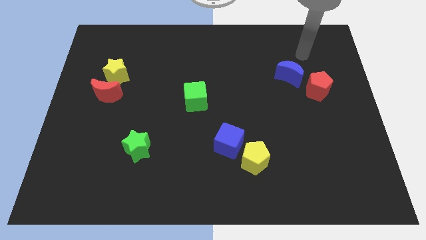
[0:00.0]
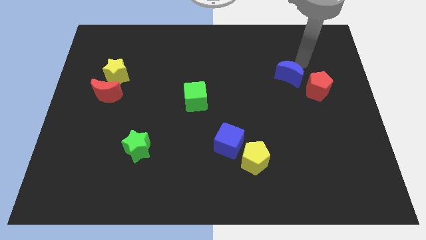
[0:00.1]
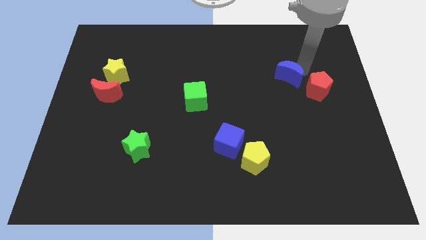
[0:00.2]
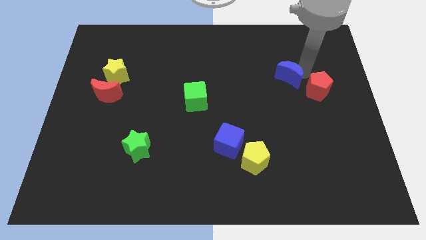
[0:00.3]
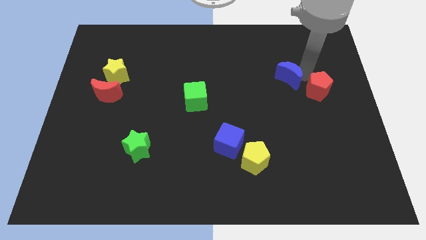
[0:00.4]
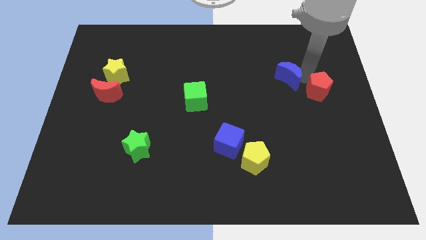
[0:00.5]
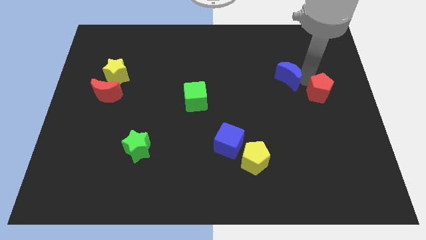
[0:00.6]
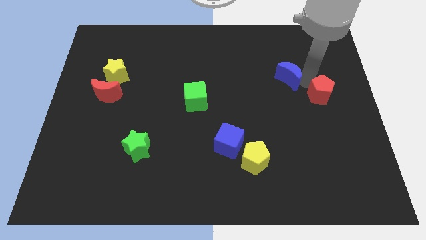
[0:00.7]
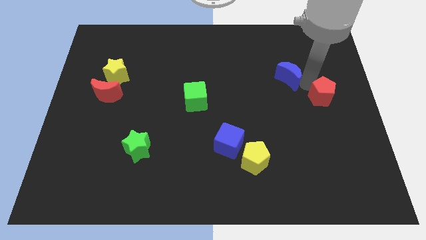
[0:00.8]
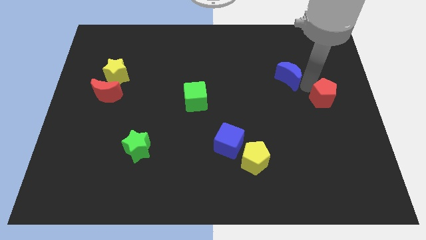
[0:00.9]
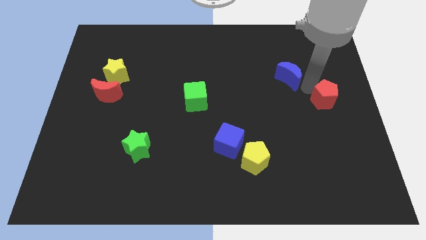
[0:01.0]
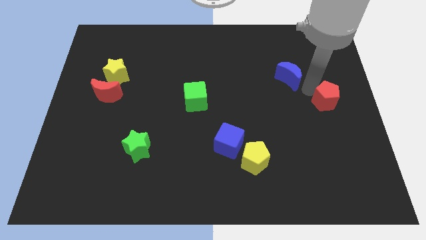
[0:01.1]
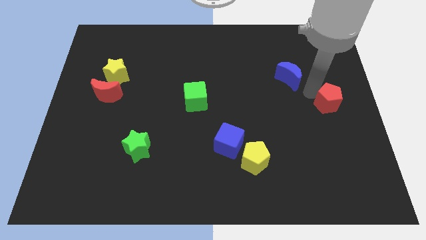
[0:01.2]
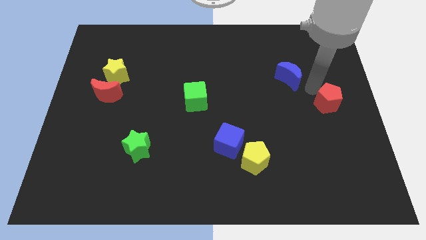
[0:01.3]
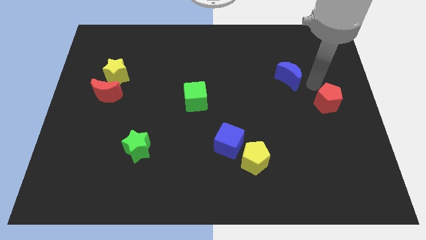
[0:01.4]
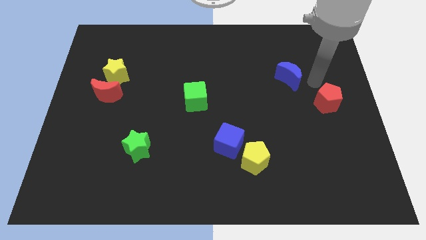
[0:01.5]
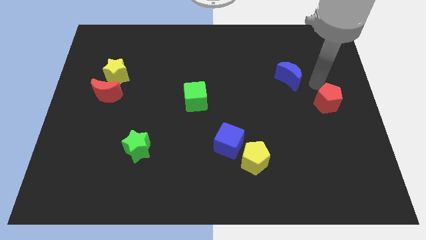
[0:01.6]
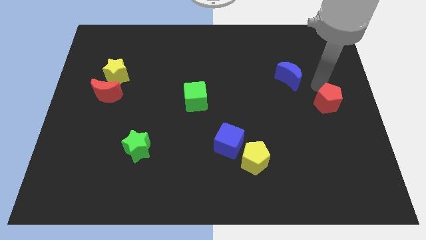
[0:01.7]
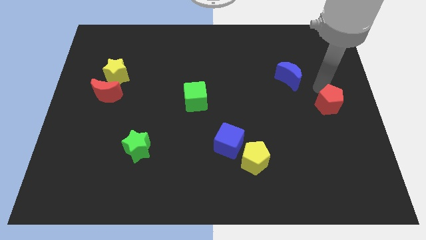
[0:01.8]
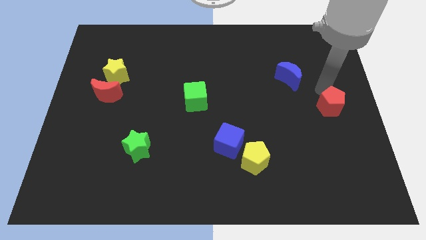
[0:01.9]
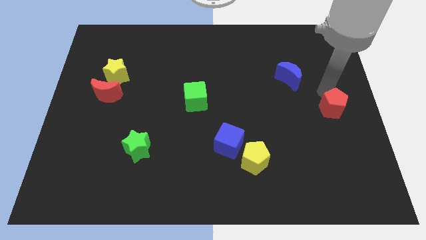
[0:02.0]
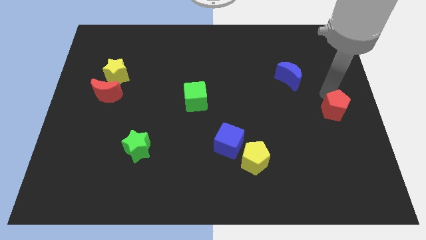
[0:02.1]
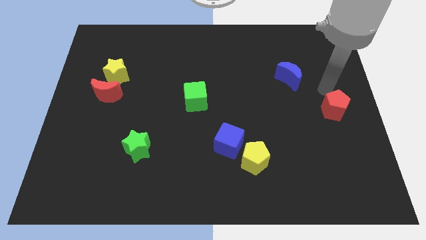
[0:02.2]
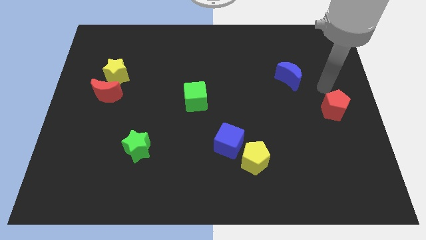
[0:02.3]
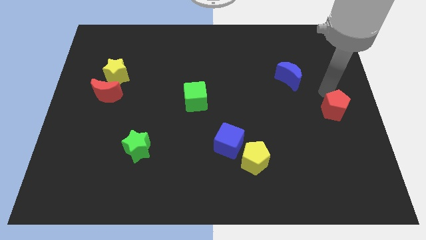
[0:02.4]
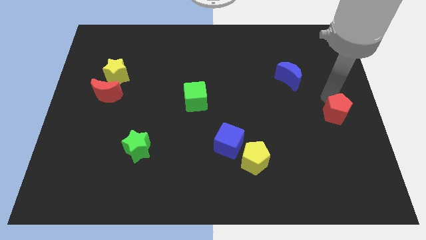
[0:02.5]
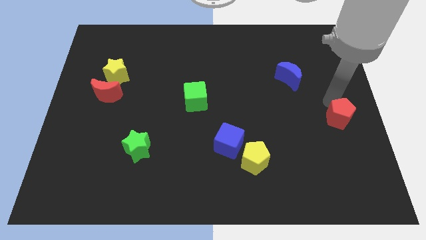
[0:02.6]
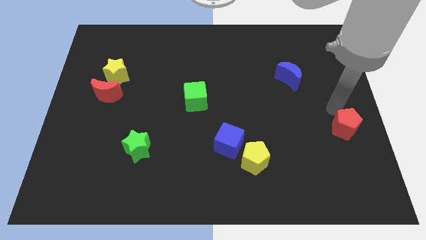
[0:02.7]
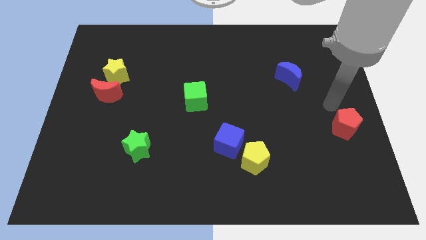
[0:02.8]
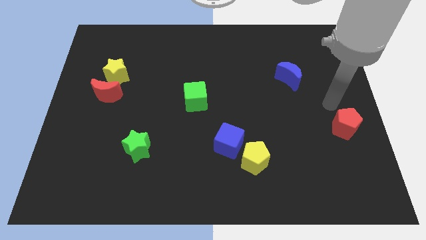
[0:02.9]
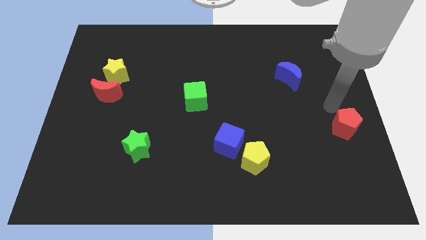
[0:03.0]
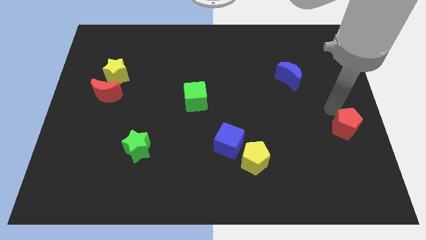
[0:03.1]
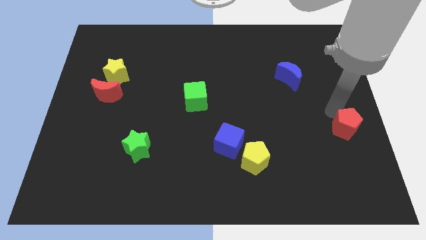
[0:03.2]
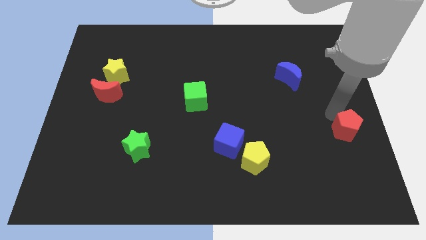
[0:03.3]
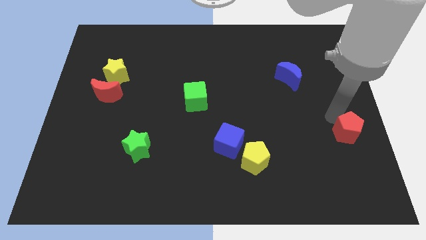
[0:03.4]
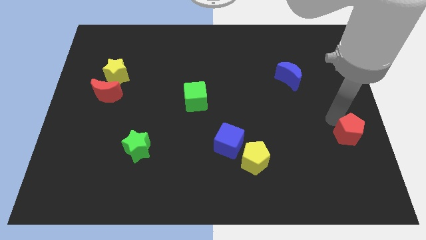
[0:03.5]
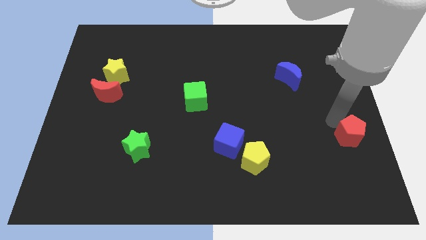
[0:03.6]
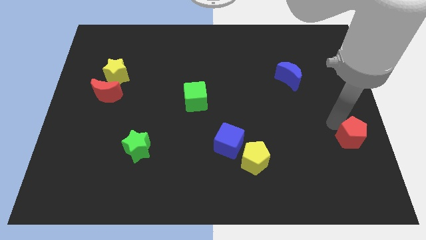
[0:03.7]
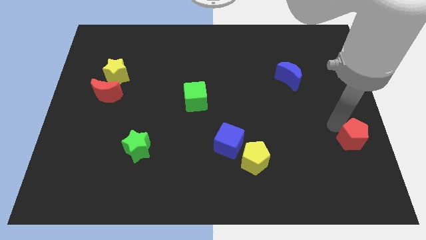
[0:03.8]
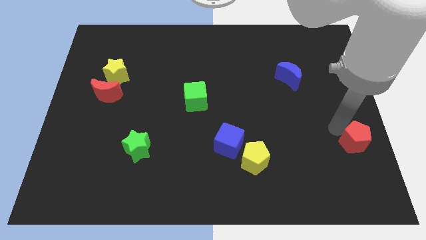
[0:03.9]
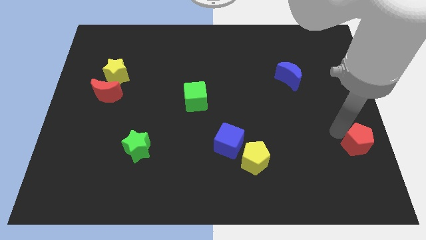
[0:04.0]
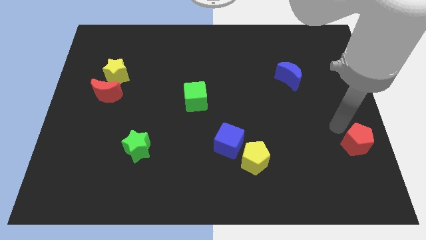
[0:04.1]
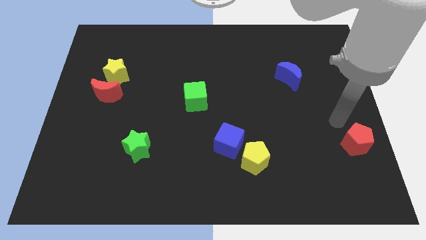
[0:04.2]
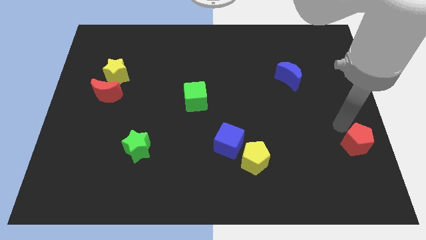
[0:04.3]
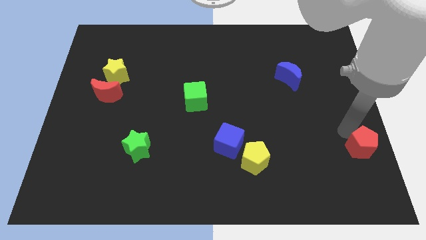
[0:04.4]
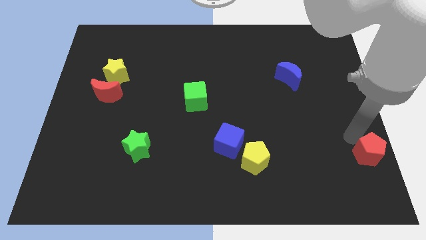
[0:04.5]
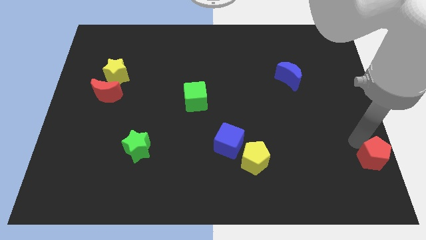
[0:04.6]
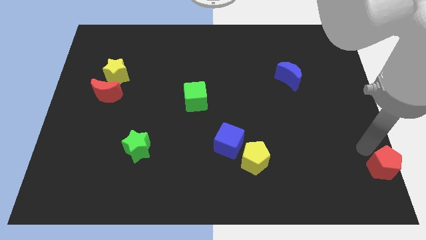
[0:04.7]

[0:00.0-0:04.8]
put the red pentagon to the bottom right

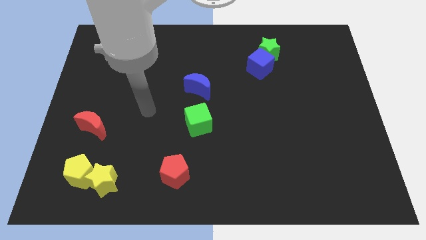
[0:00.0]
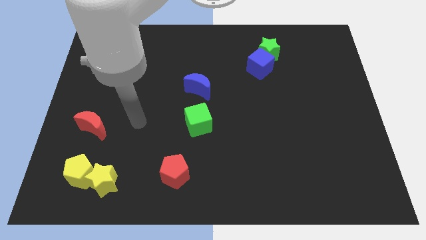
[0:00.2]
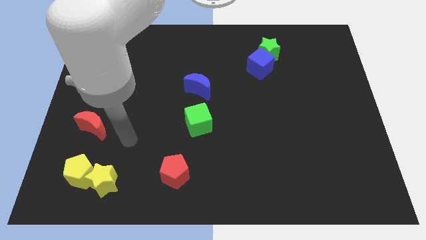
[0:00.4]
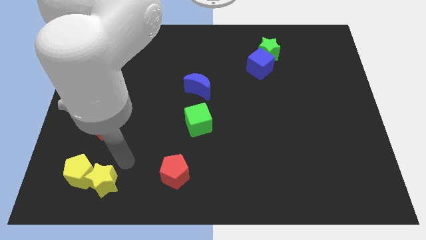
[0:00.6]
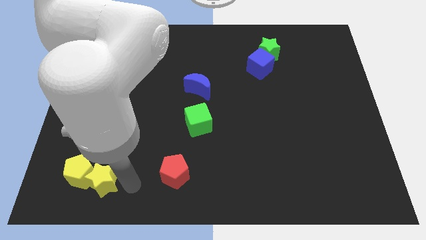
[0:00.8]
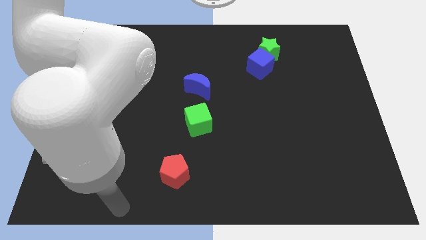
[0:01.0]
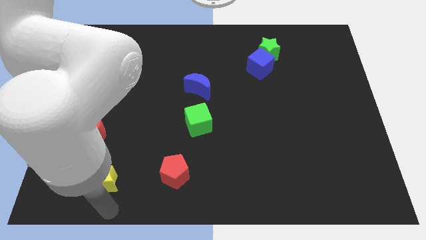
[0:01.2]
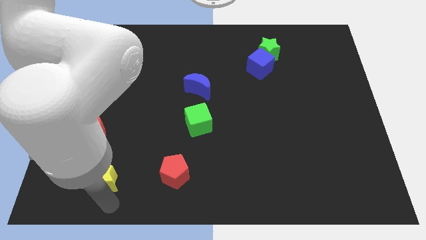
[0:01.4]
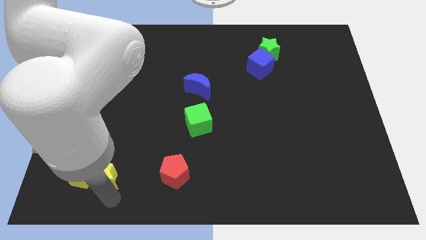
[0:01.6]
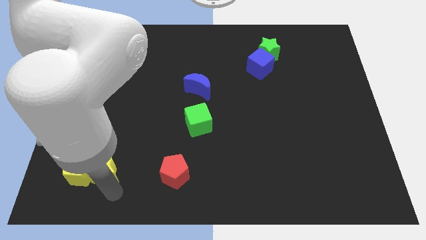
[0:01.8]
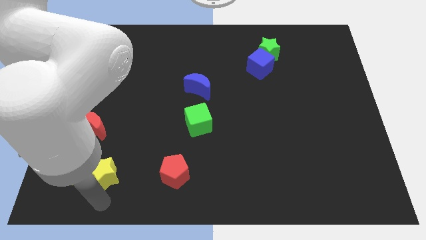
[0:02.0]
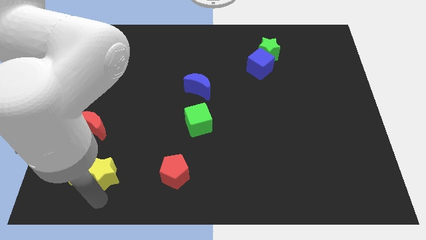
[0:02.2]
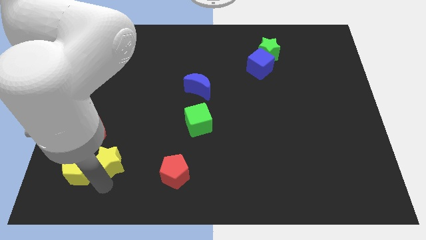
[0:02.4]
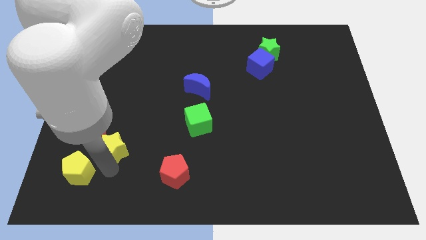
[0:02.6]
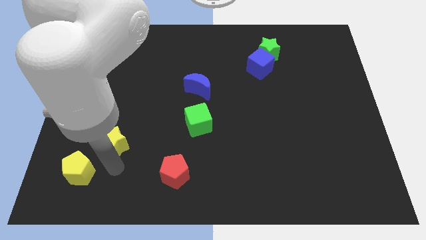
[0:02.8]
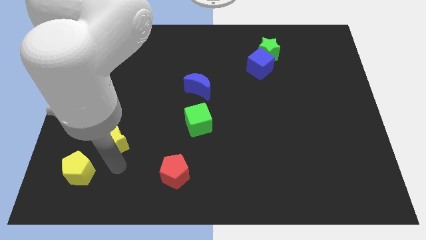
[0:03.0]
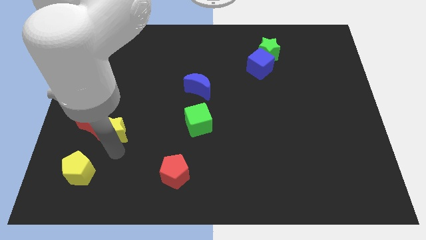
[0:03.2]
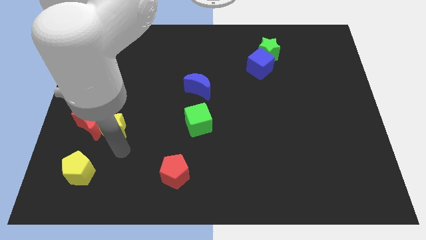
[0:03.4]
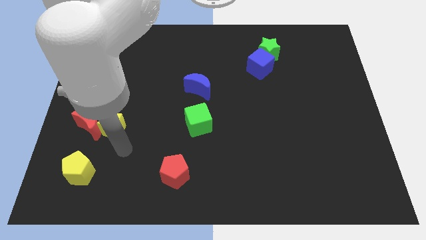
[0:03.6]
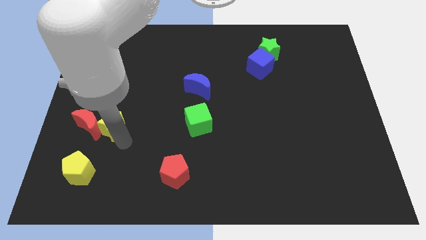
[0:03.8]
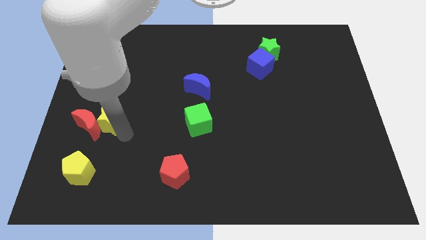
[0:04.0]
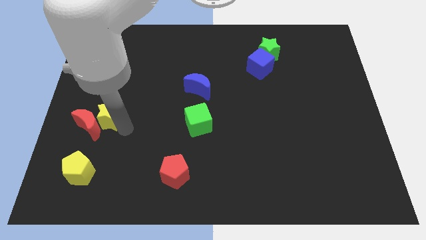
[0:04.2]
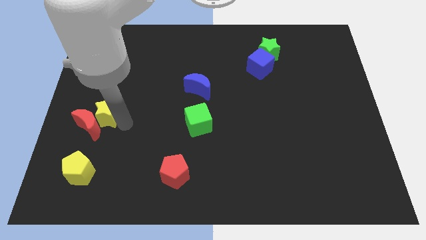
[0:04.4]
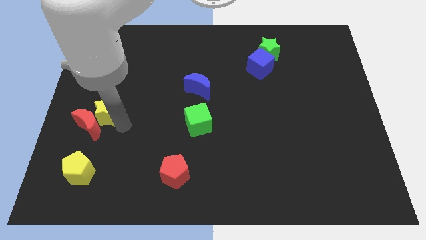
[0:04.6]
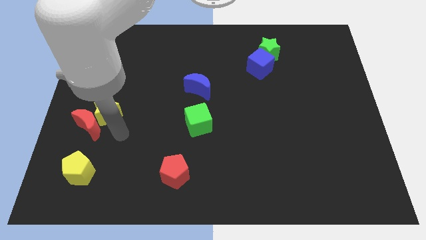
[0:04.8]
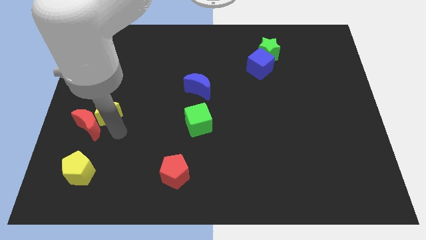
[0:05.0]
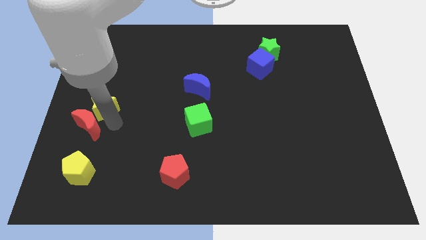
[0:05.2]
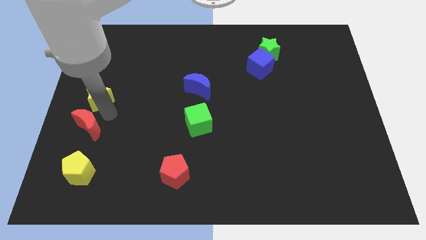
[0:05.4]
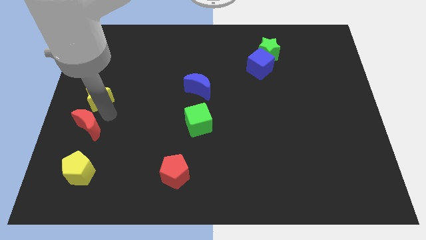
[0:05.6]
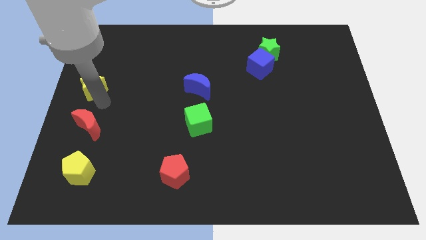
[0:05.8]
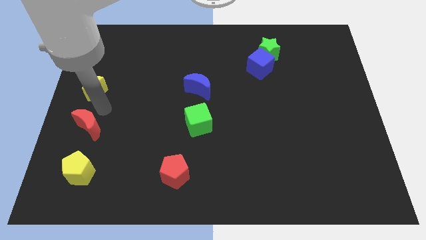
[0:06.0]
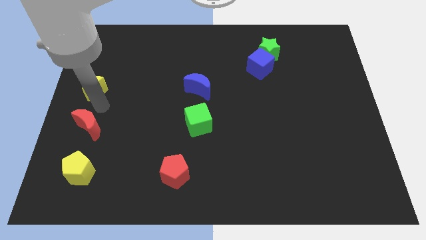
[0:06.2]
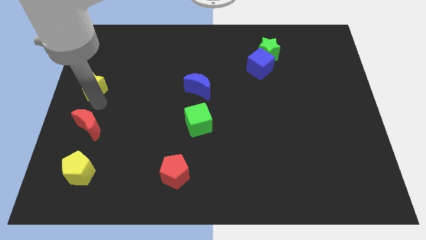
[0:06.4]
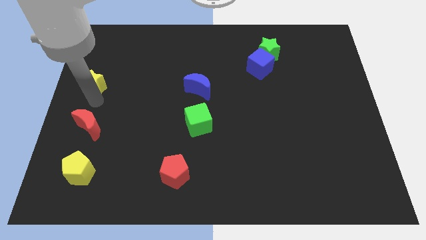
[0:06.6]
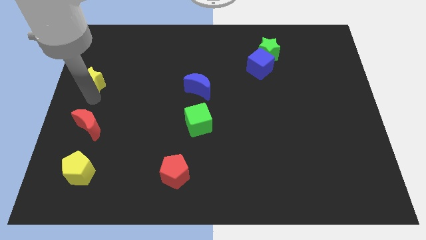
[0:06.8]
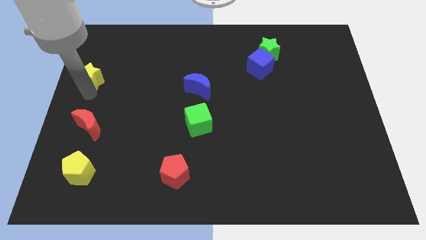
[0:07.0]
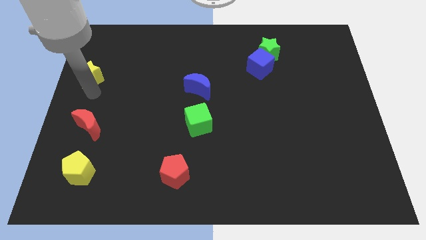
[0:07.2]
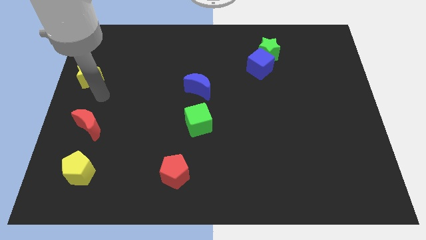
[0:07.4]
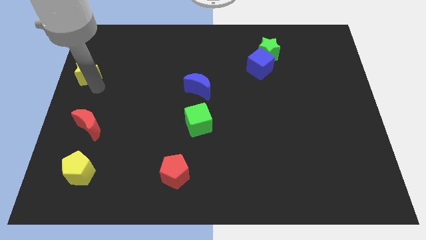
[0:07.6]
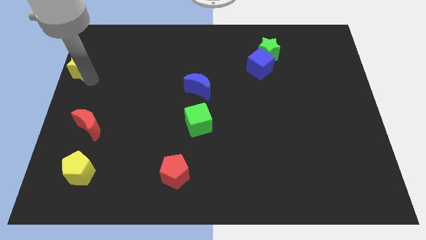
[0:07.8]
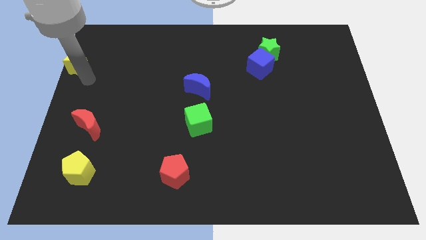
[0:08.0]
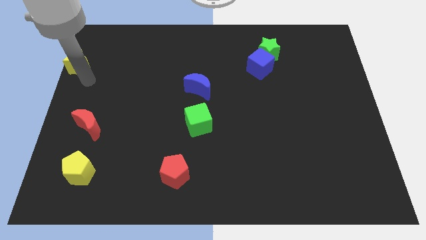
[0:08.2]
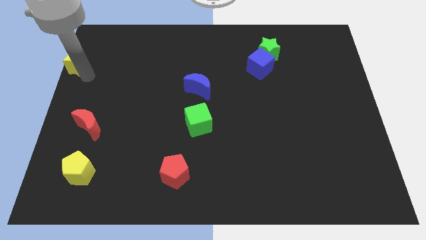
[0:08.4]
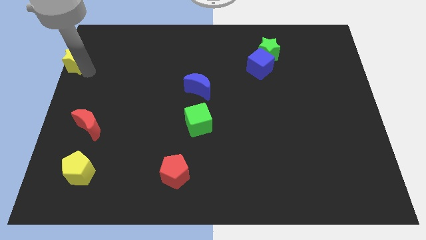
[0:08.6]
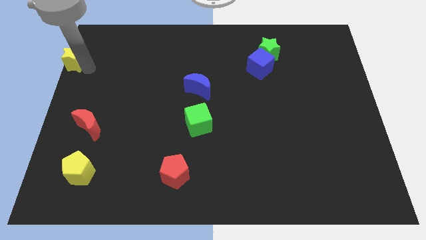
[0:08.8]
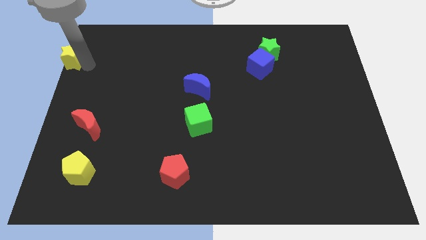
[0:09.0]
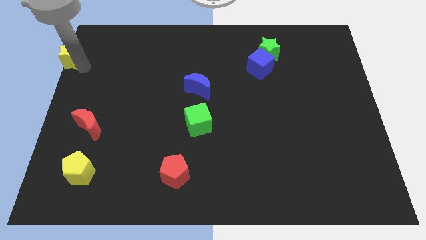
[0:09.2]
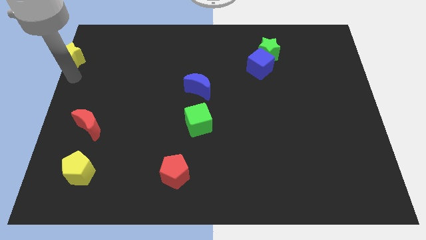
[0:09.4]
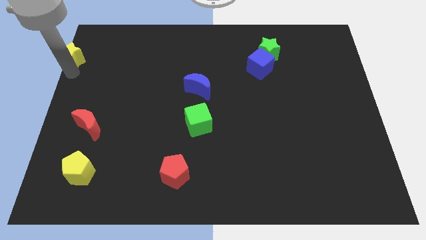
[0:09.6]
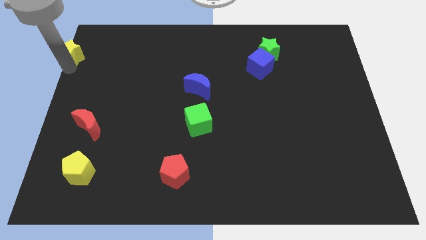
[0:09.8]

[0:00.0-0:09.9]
move the yellow star to the top left
